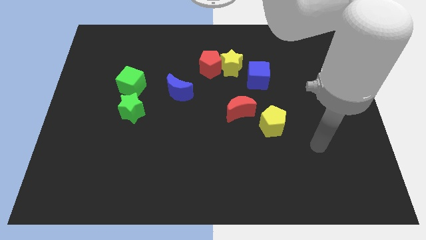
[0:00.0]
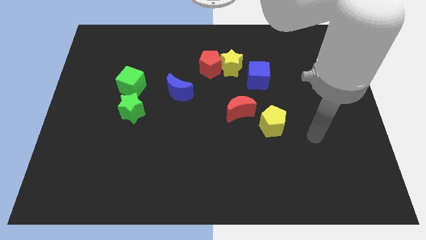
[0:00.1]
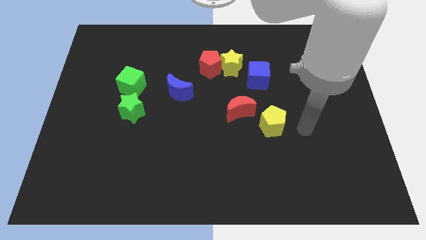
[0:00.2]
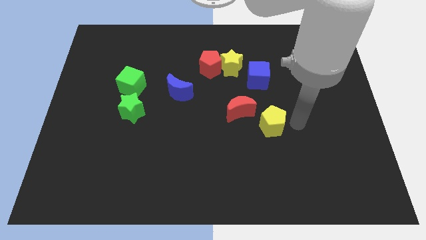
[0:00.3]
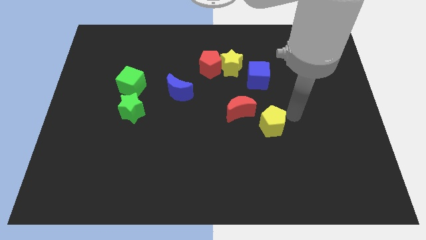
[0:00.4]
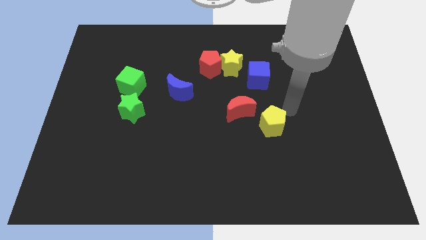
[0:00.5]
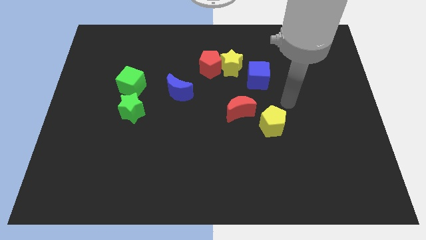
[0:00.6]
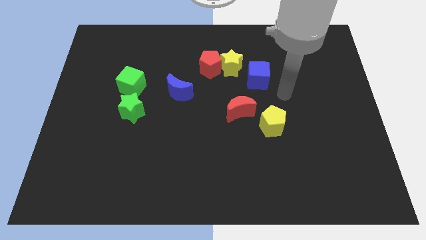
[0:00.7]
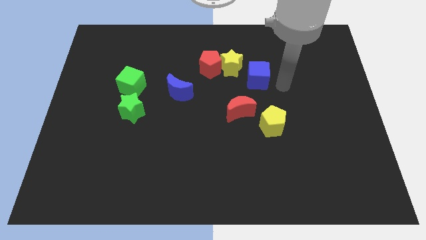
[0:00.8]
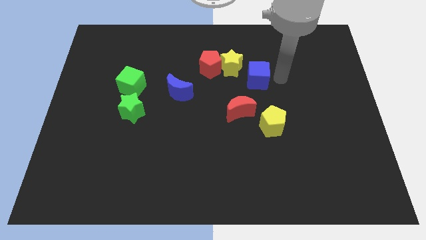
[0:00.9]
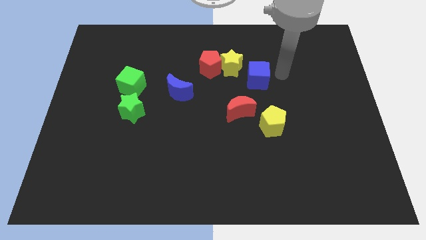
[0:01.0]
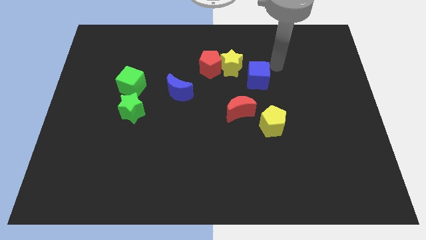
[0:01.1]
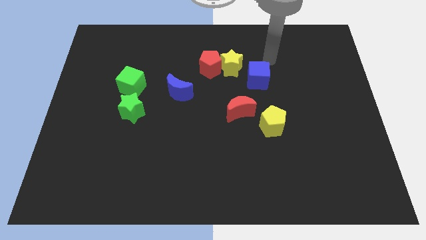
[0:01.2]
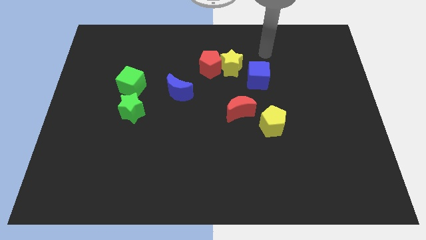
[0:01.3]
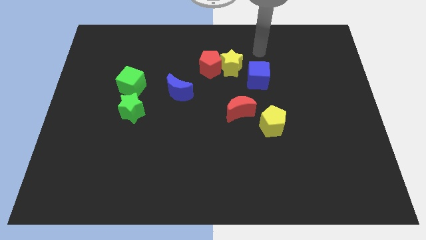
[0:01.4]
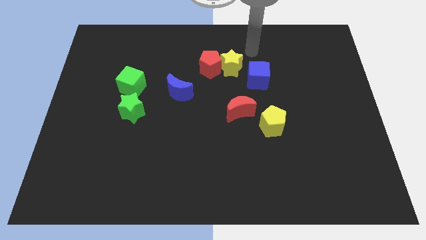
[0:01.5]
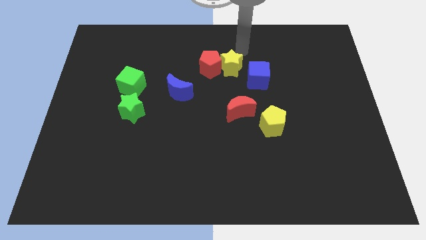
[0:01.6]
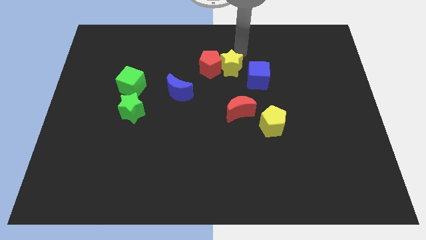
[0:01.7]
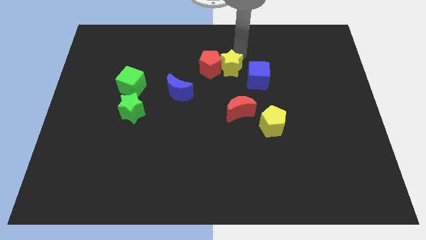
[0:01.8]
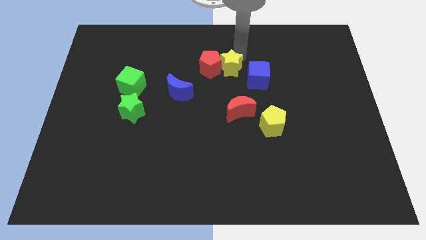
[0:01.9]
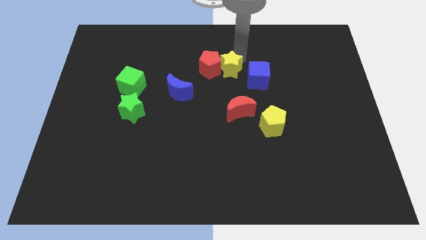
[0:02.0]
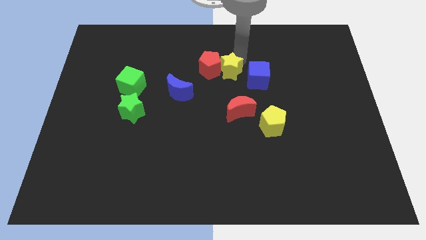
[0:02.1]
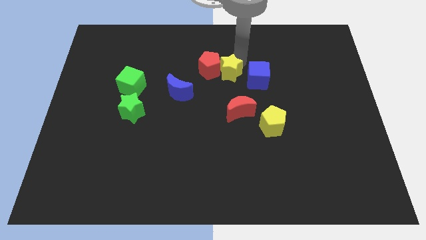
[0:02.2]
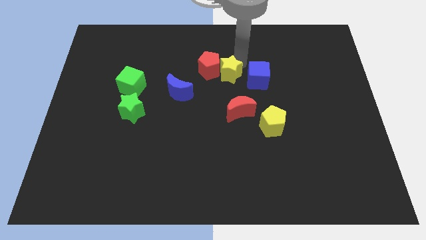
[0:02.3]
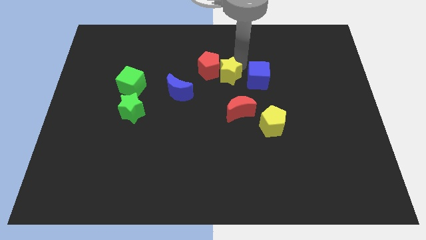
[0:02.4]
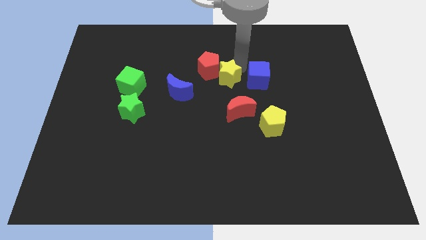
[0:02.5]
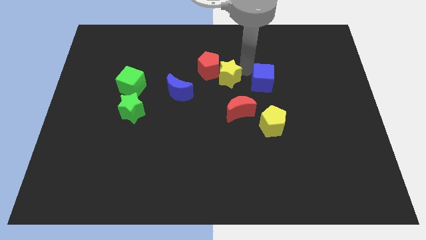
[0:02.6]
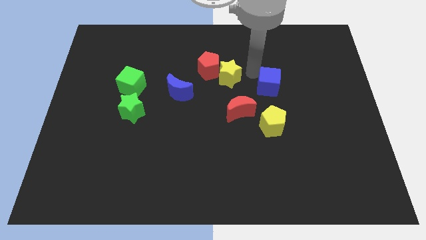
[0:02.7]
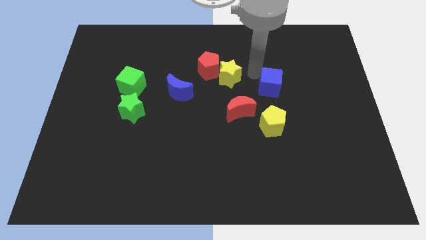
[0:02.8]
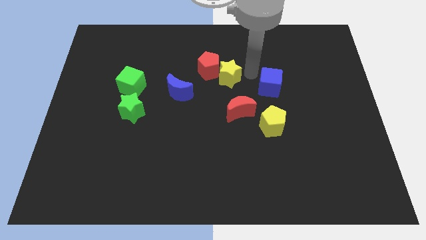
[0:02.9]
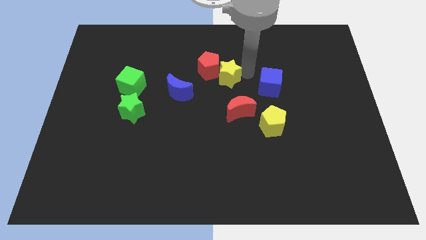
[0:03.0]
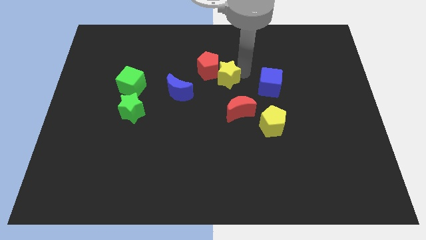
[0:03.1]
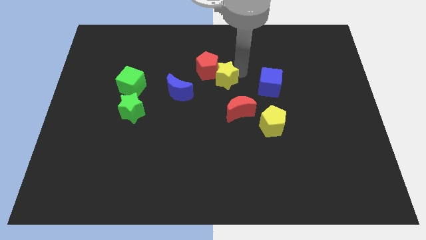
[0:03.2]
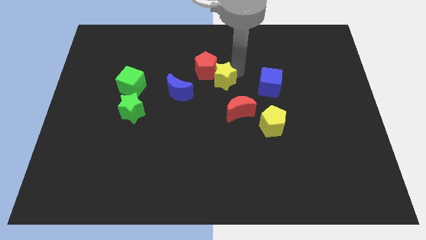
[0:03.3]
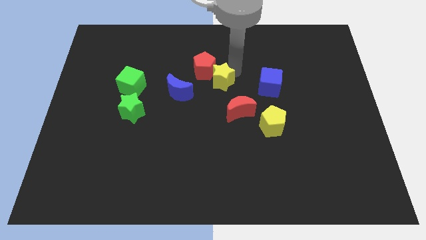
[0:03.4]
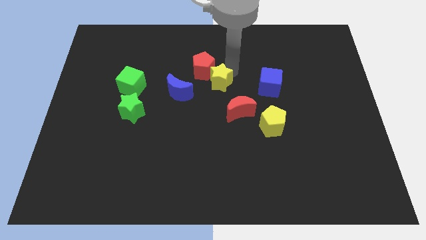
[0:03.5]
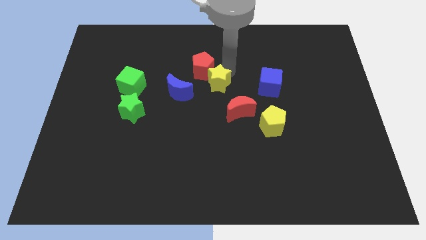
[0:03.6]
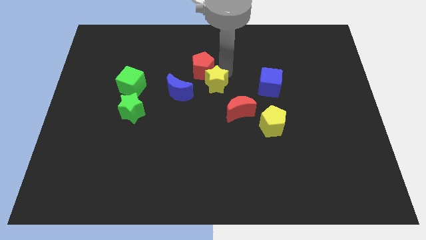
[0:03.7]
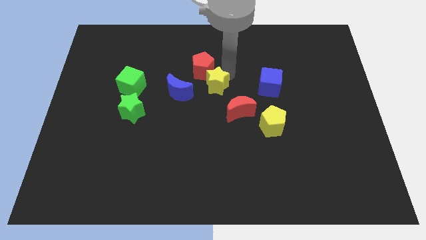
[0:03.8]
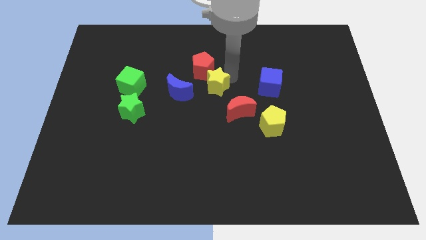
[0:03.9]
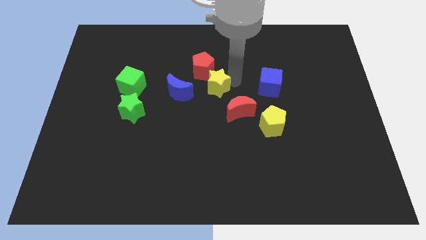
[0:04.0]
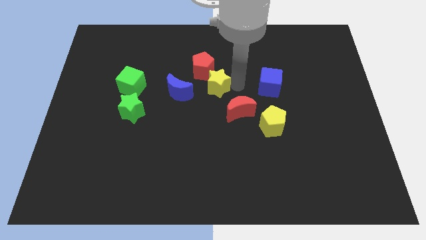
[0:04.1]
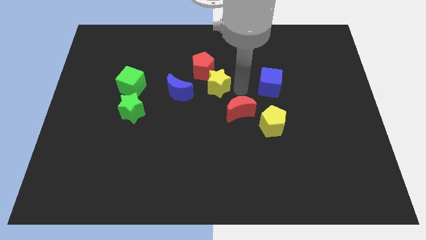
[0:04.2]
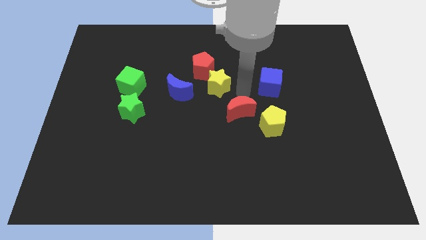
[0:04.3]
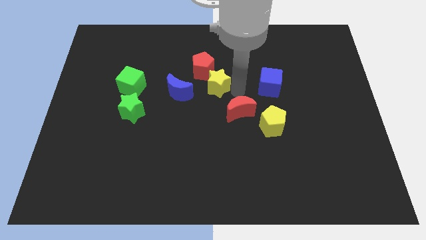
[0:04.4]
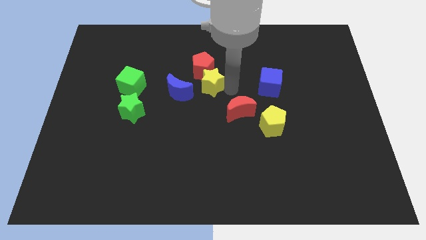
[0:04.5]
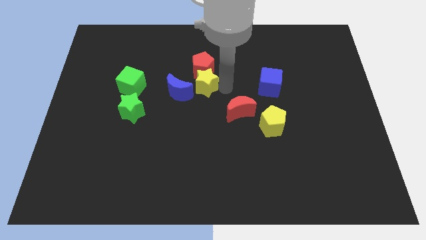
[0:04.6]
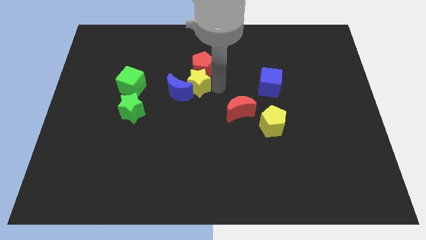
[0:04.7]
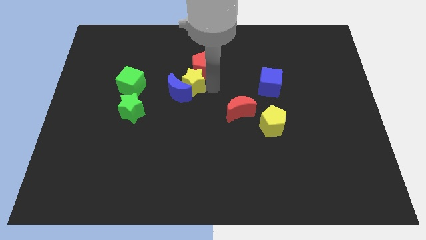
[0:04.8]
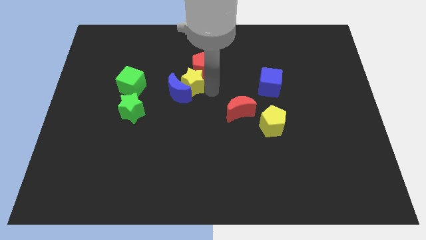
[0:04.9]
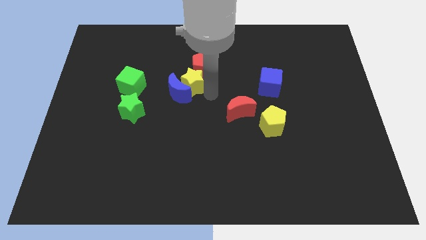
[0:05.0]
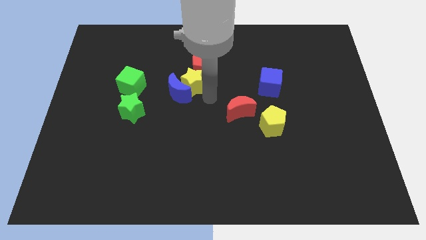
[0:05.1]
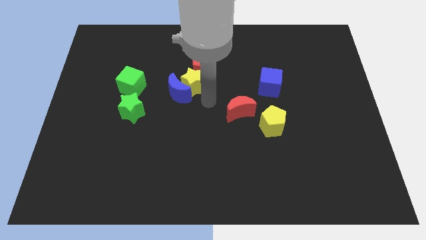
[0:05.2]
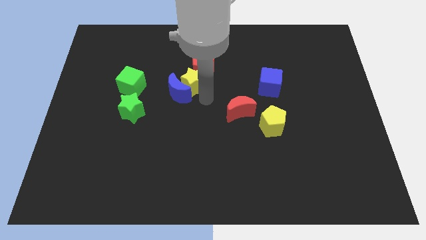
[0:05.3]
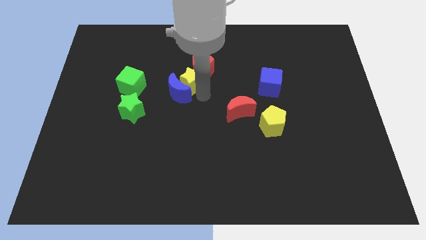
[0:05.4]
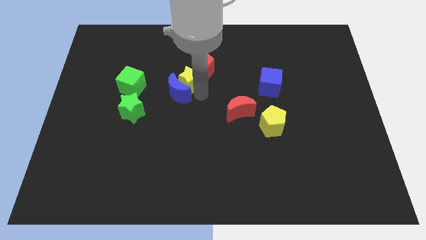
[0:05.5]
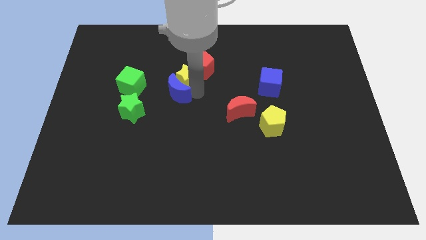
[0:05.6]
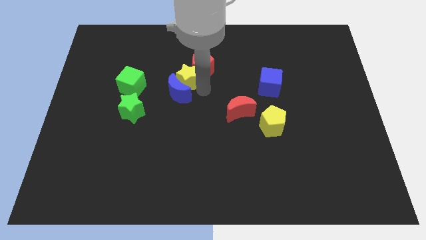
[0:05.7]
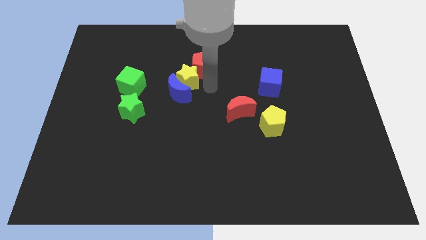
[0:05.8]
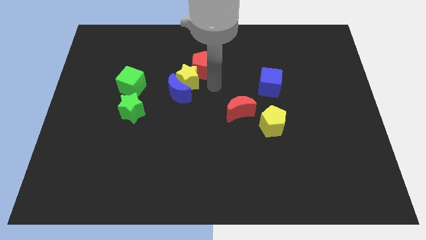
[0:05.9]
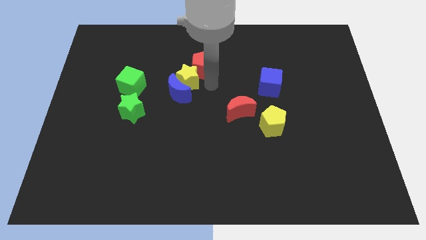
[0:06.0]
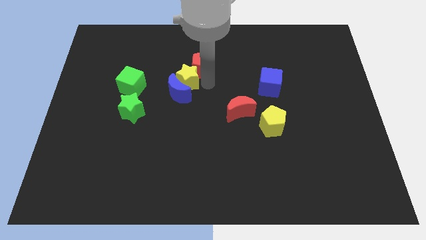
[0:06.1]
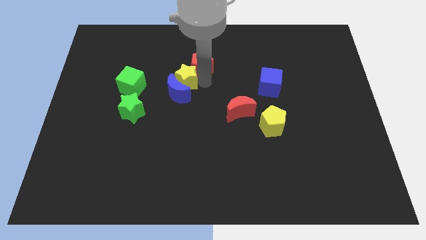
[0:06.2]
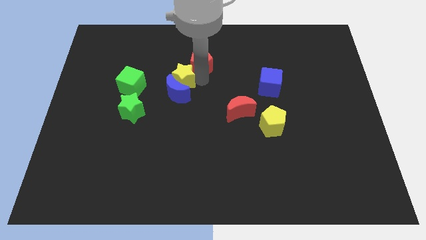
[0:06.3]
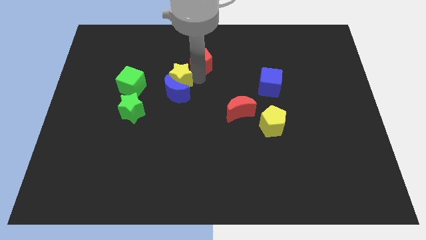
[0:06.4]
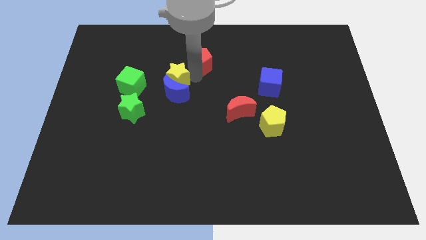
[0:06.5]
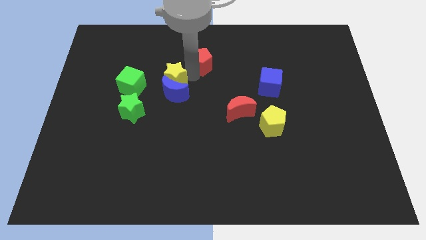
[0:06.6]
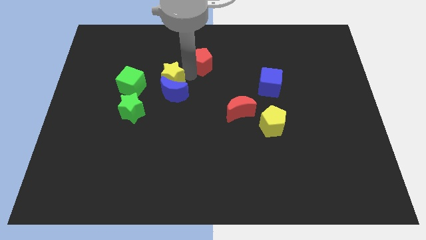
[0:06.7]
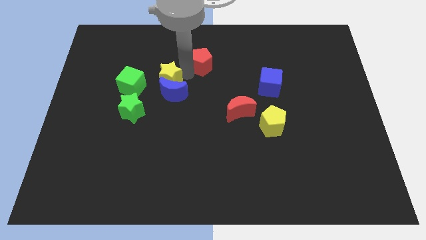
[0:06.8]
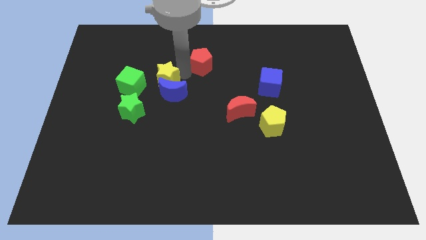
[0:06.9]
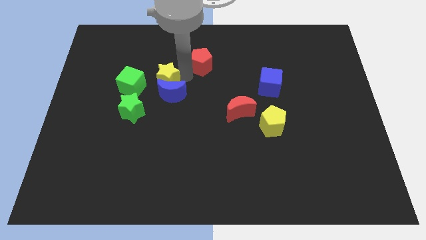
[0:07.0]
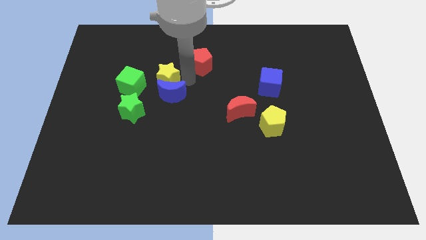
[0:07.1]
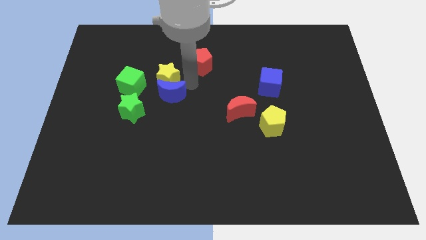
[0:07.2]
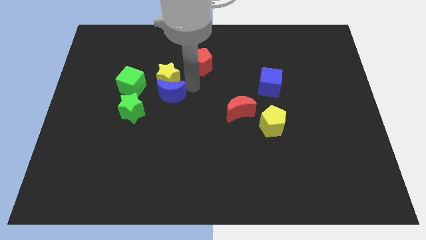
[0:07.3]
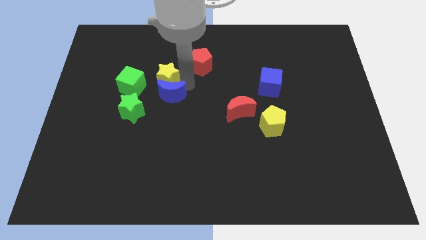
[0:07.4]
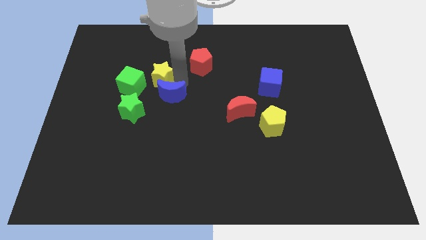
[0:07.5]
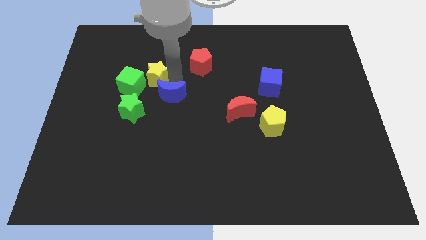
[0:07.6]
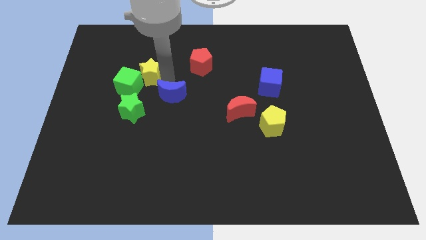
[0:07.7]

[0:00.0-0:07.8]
move the yellow star left

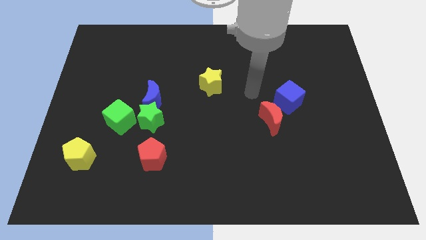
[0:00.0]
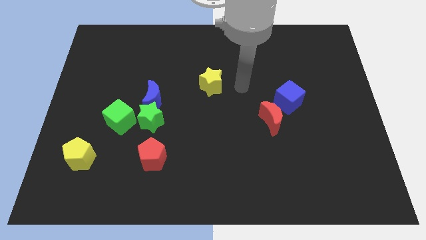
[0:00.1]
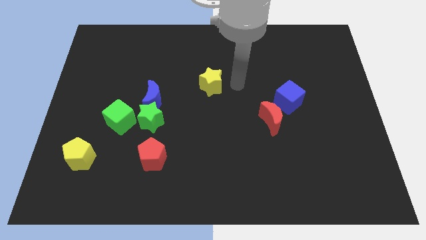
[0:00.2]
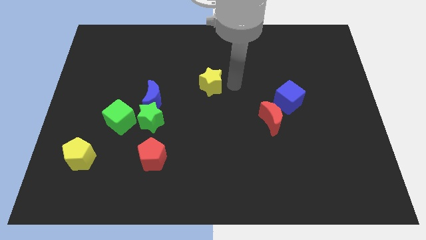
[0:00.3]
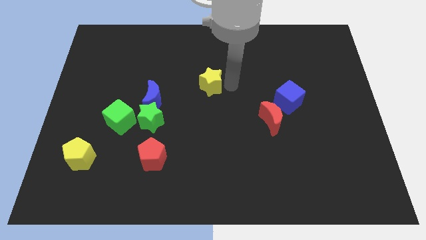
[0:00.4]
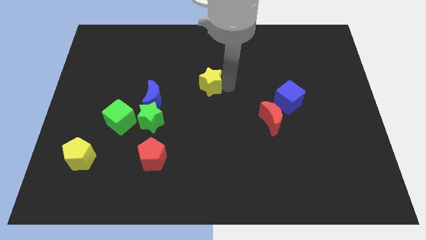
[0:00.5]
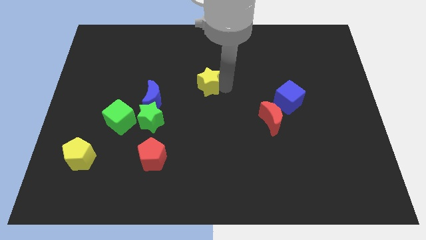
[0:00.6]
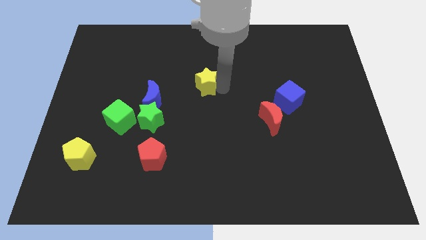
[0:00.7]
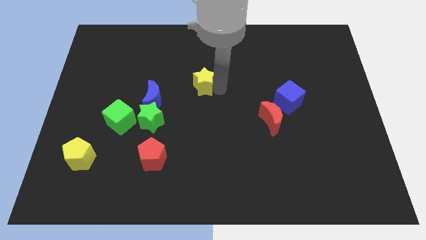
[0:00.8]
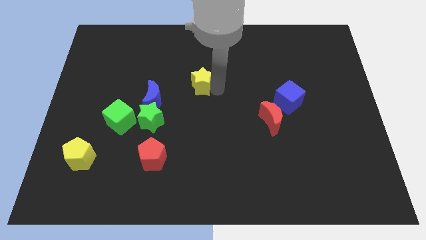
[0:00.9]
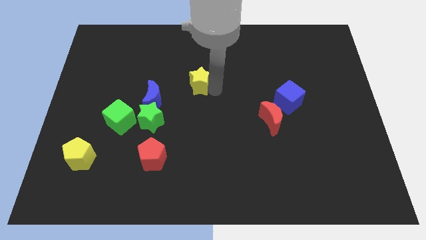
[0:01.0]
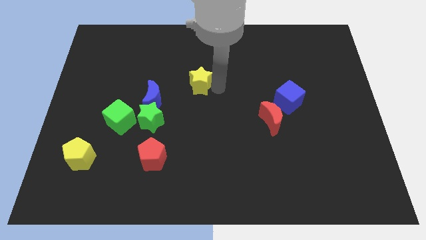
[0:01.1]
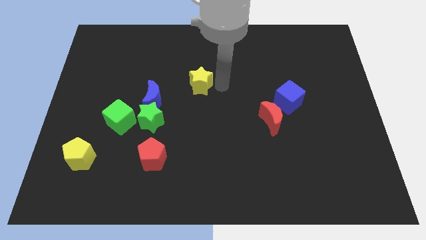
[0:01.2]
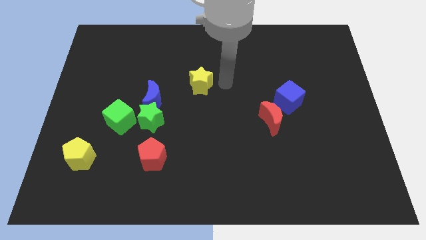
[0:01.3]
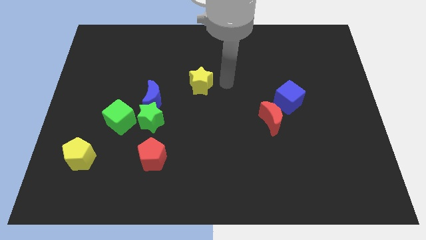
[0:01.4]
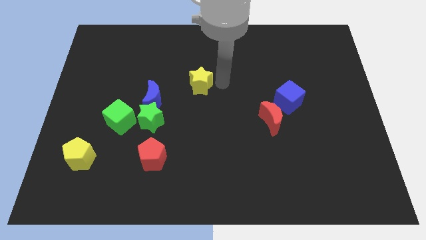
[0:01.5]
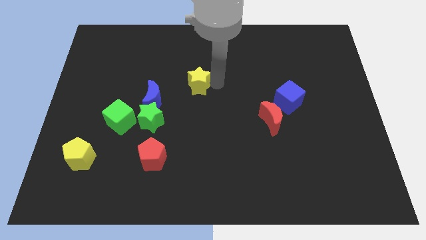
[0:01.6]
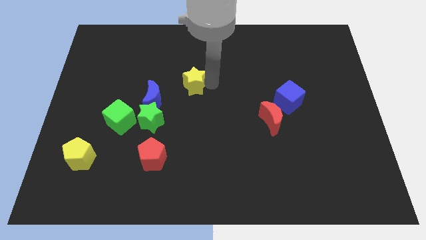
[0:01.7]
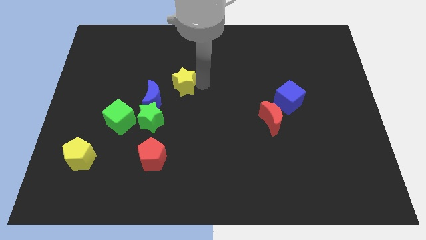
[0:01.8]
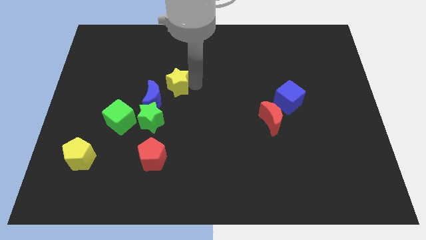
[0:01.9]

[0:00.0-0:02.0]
move the yellow star to the left somewhat
